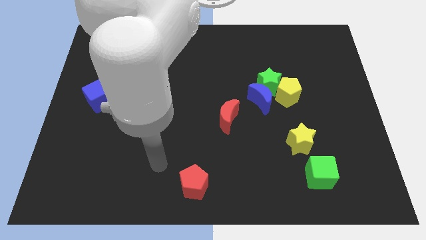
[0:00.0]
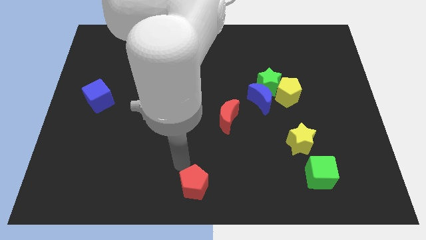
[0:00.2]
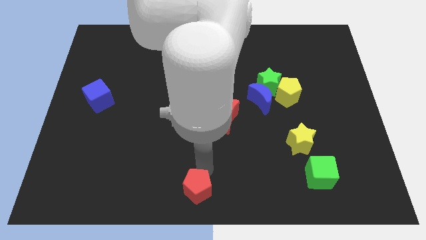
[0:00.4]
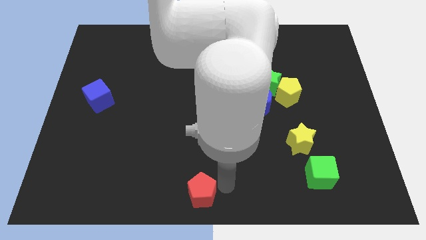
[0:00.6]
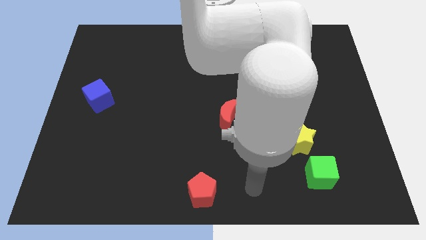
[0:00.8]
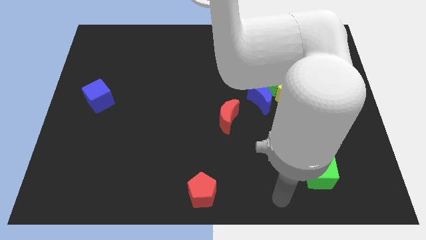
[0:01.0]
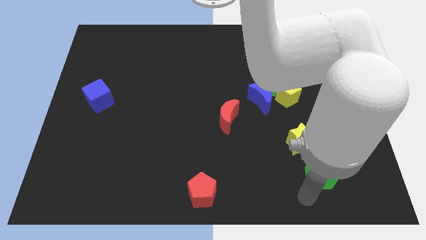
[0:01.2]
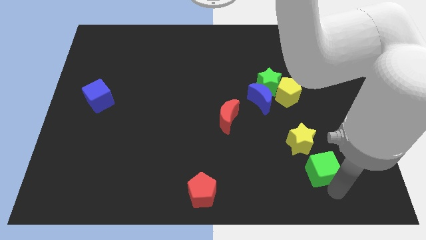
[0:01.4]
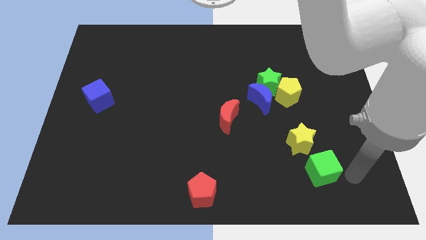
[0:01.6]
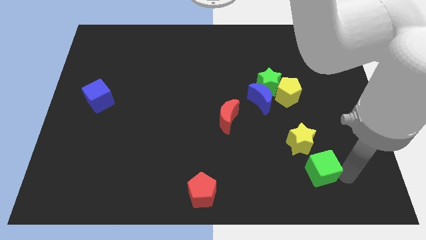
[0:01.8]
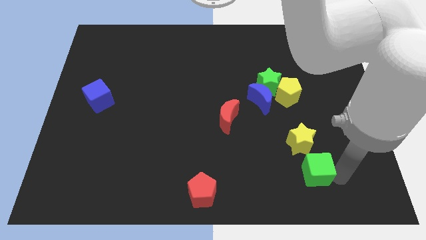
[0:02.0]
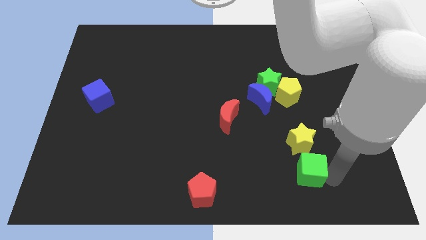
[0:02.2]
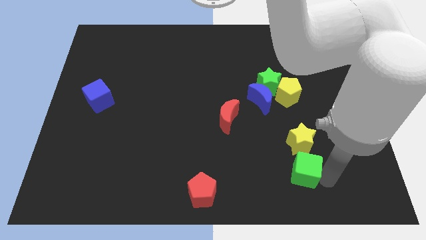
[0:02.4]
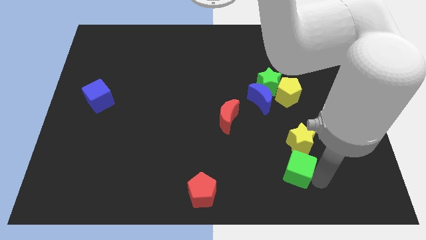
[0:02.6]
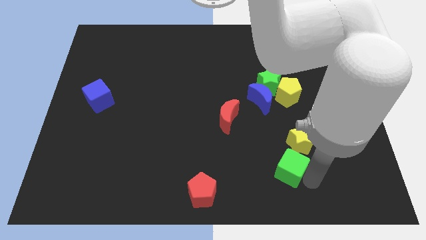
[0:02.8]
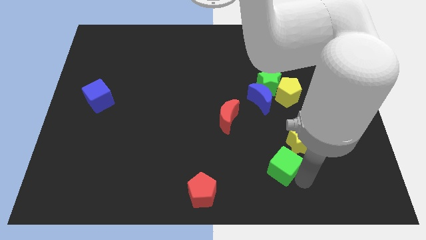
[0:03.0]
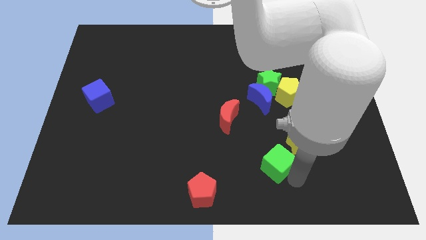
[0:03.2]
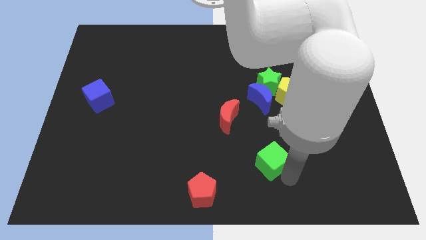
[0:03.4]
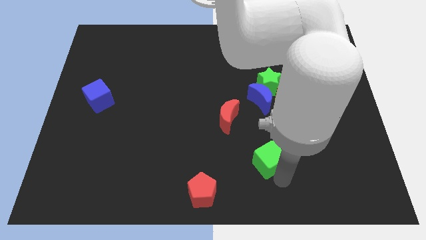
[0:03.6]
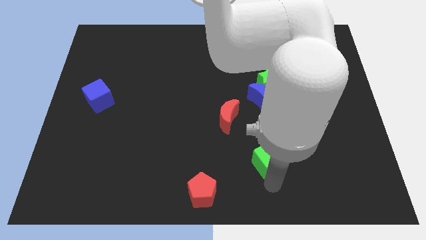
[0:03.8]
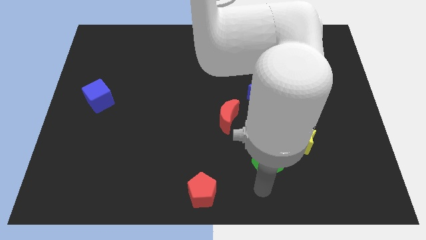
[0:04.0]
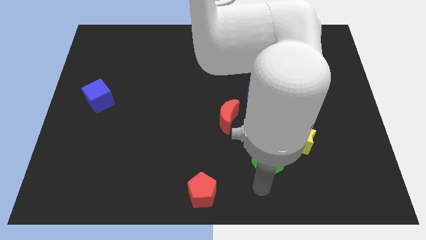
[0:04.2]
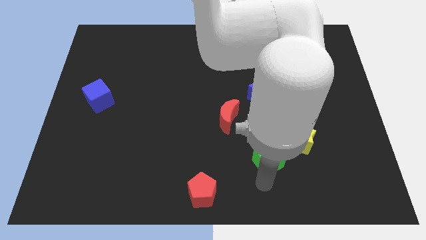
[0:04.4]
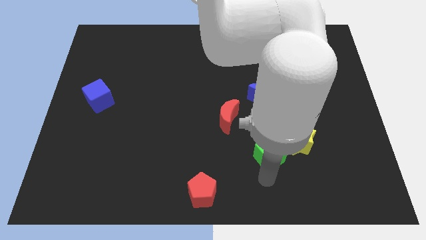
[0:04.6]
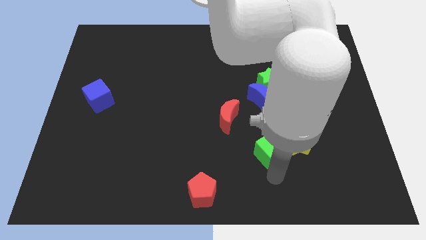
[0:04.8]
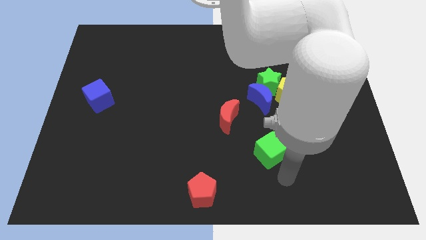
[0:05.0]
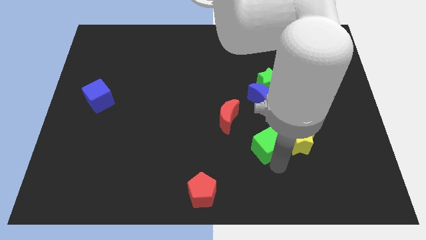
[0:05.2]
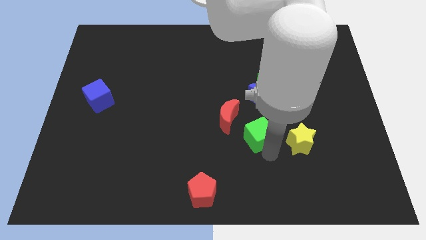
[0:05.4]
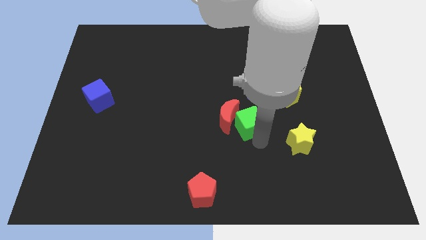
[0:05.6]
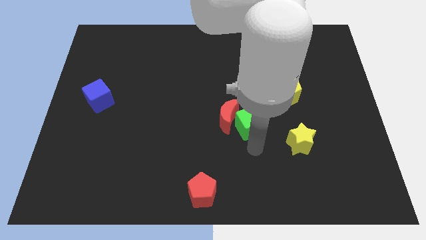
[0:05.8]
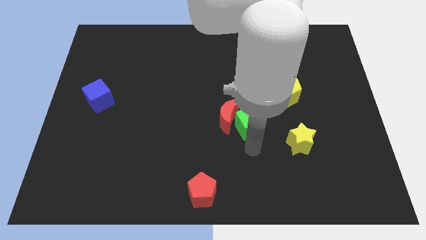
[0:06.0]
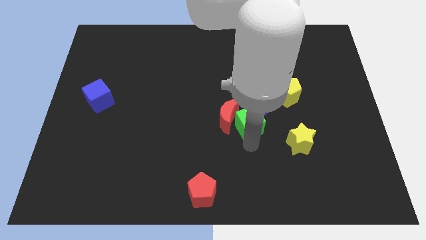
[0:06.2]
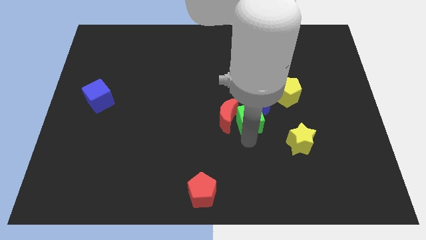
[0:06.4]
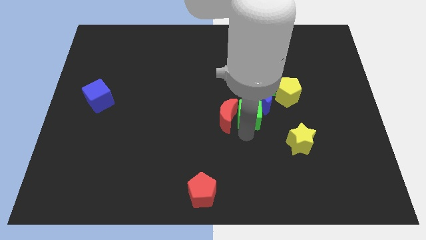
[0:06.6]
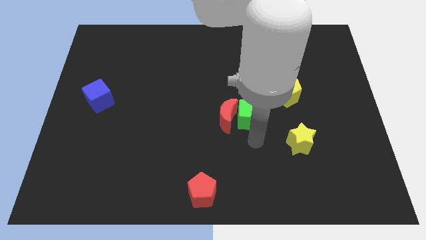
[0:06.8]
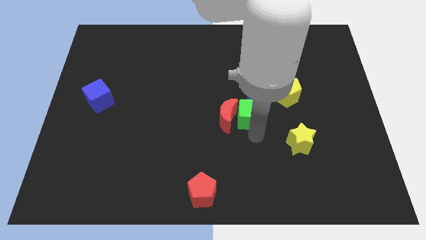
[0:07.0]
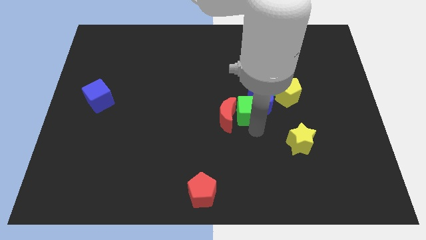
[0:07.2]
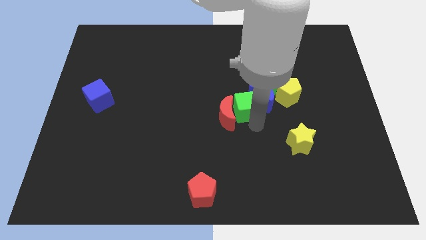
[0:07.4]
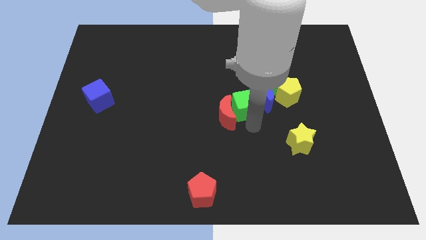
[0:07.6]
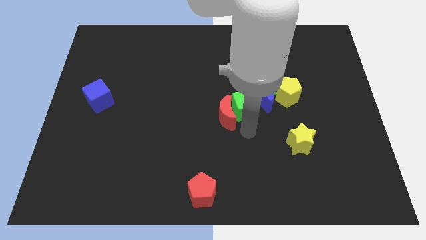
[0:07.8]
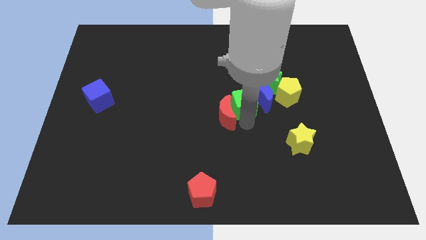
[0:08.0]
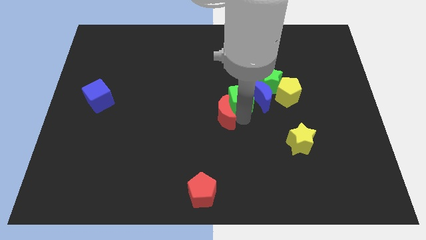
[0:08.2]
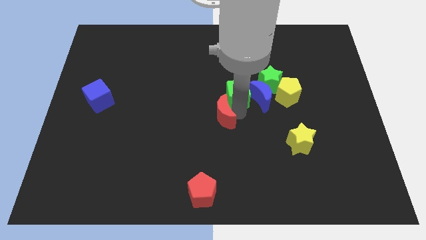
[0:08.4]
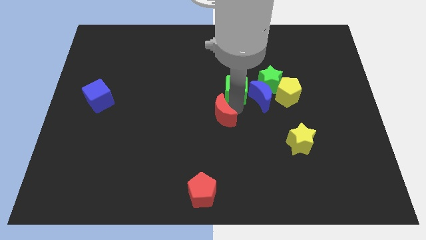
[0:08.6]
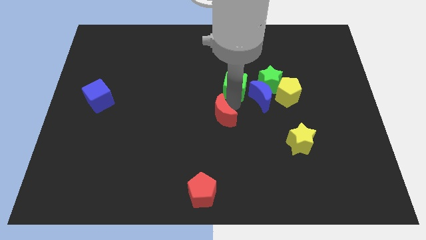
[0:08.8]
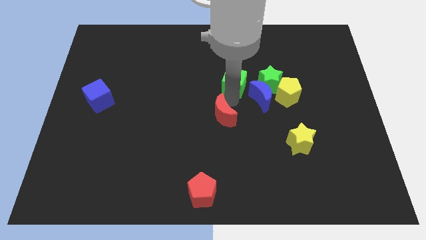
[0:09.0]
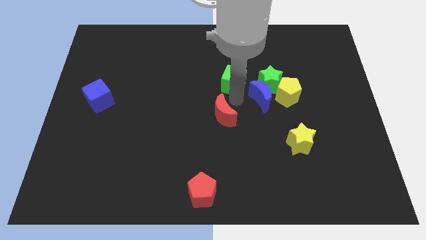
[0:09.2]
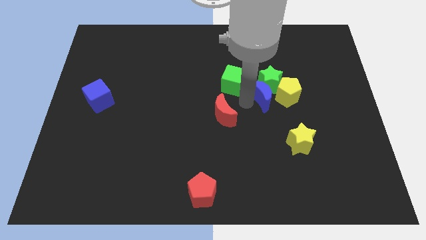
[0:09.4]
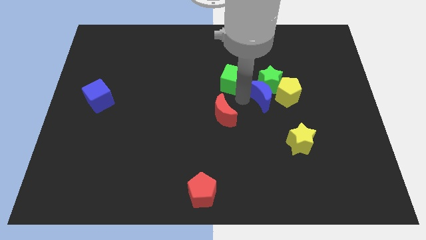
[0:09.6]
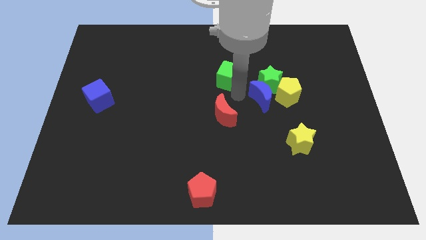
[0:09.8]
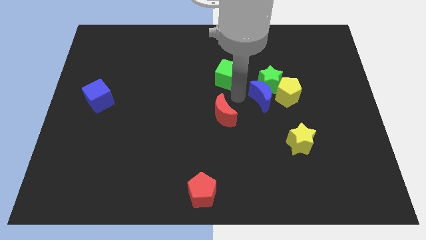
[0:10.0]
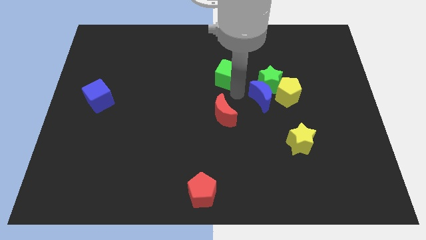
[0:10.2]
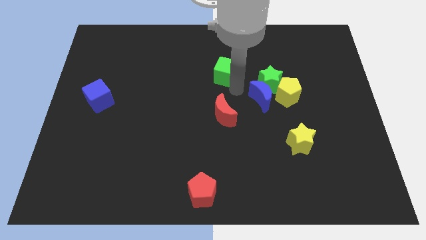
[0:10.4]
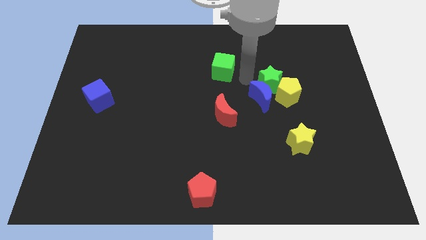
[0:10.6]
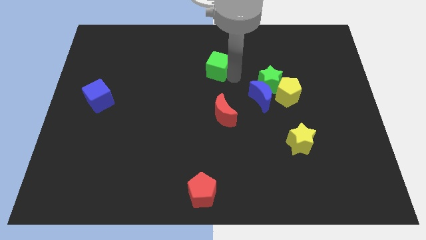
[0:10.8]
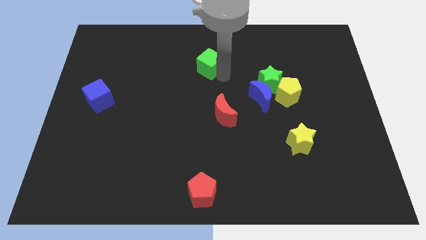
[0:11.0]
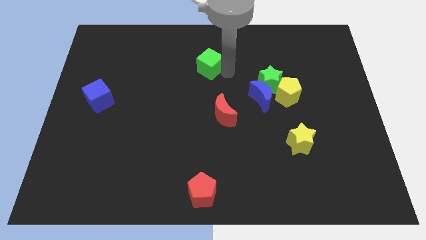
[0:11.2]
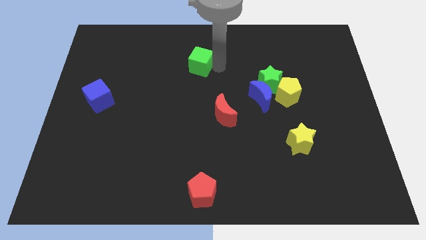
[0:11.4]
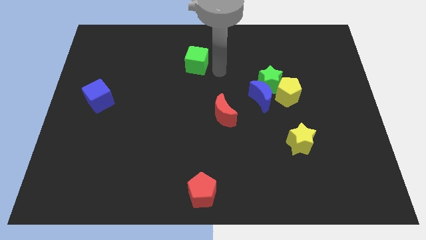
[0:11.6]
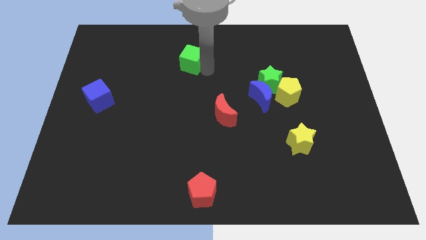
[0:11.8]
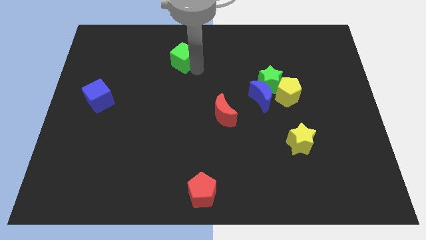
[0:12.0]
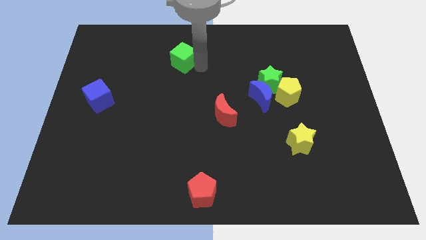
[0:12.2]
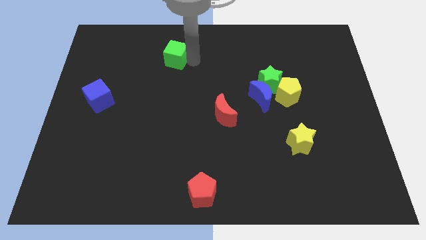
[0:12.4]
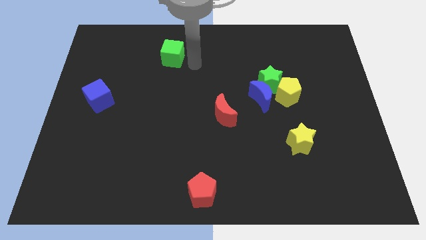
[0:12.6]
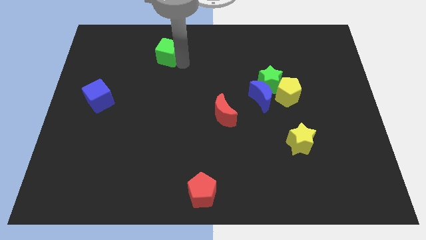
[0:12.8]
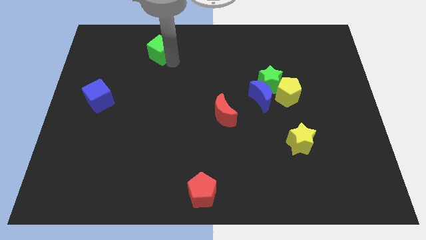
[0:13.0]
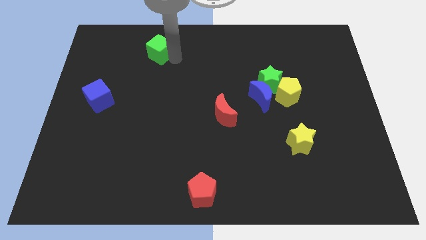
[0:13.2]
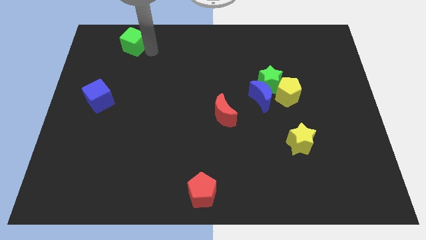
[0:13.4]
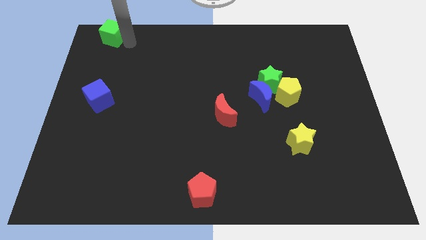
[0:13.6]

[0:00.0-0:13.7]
slide the green cube to the top left
